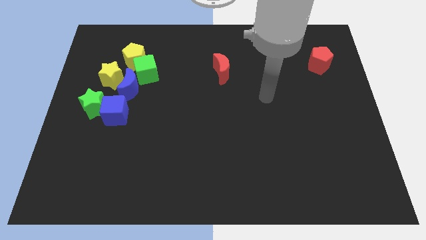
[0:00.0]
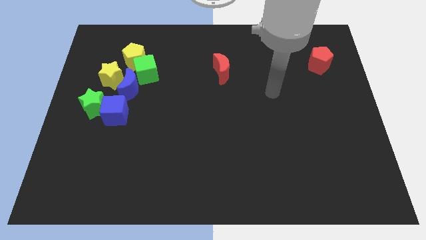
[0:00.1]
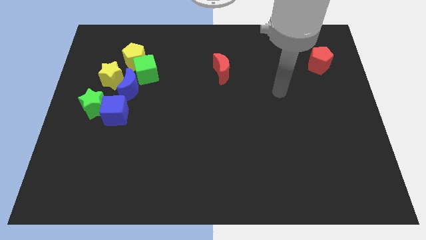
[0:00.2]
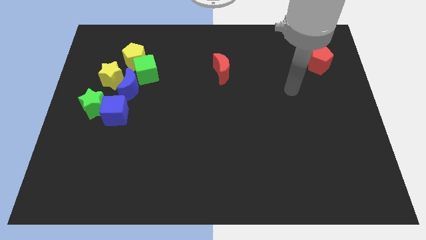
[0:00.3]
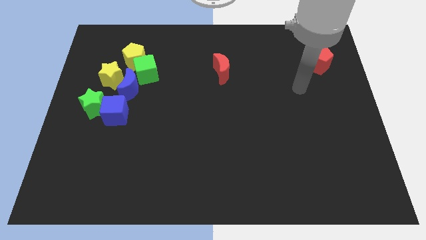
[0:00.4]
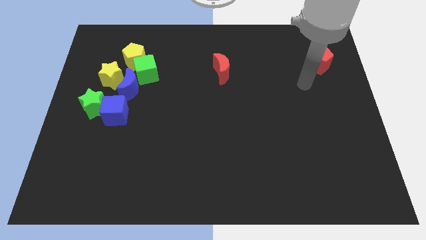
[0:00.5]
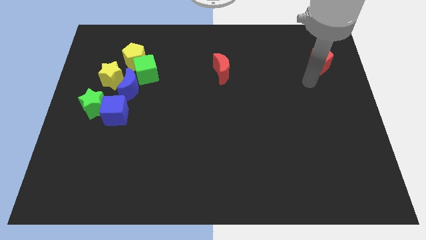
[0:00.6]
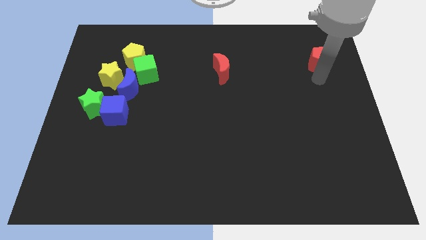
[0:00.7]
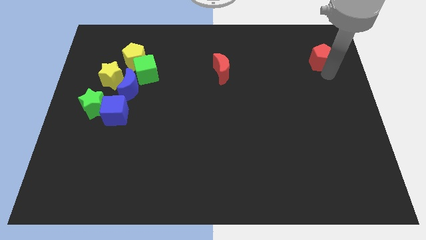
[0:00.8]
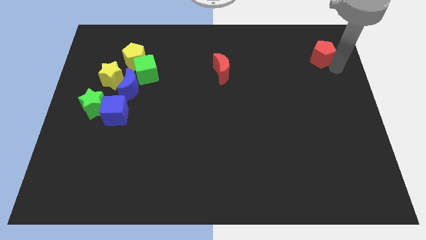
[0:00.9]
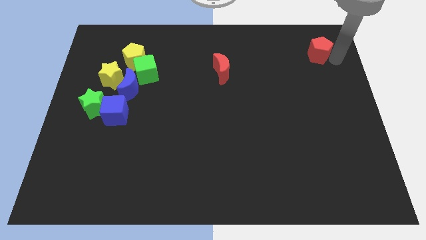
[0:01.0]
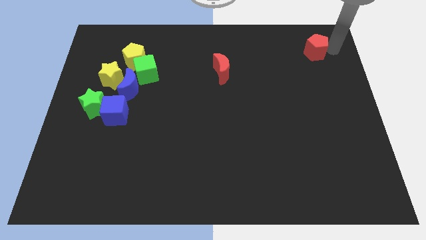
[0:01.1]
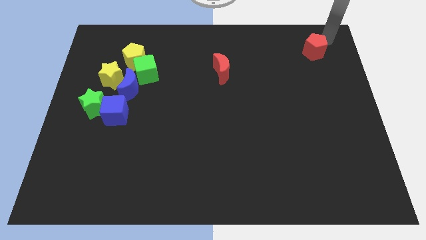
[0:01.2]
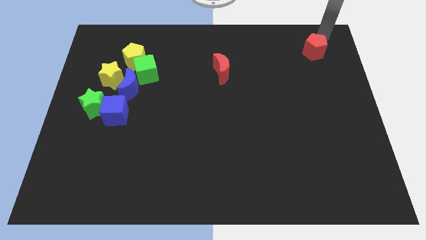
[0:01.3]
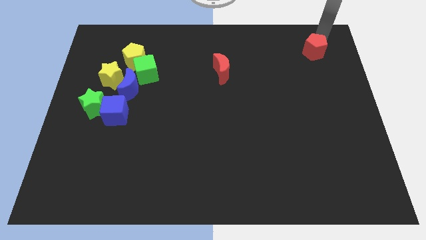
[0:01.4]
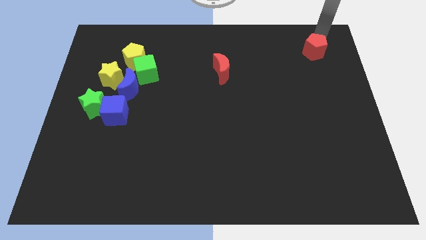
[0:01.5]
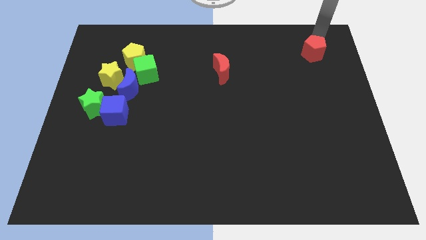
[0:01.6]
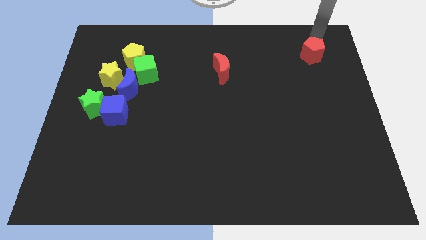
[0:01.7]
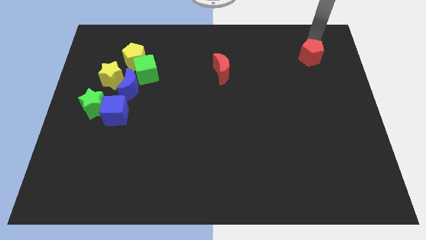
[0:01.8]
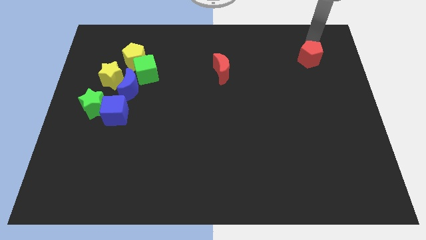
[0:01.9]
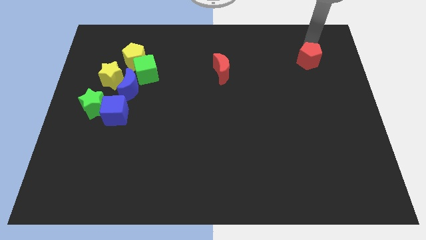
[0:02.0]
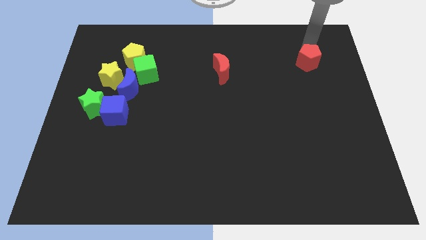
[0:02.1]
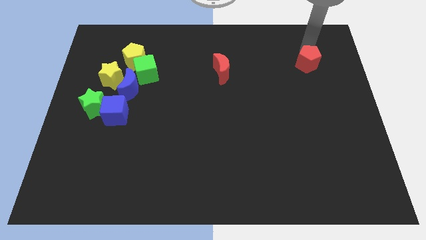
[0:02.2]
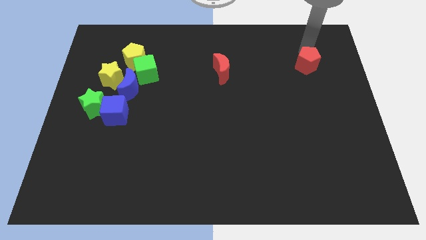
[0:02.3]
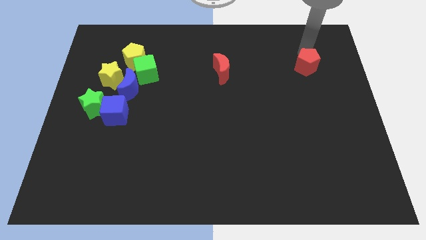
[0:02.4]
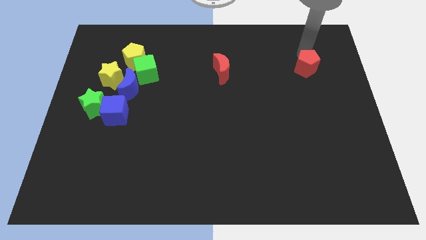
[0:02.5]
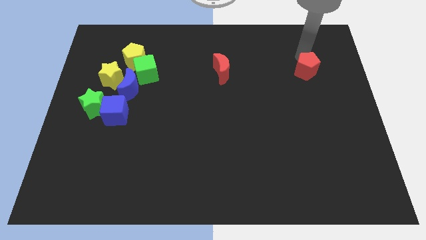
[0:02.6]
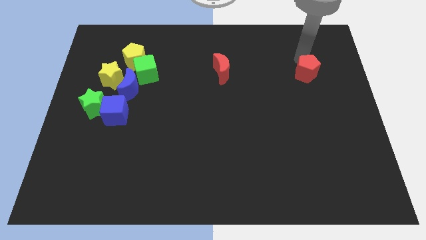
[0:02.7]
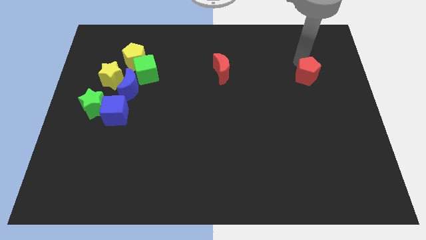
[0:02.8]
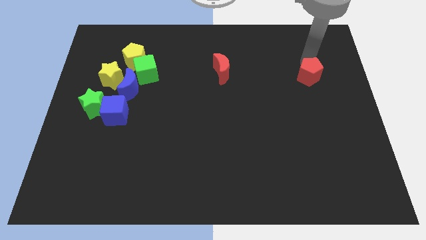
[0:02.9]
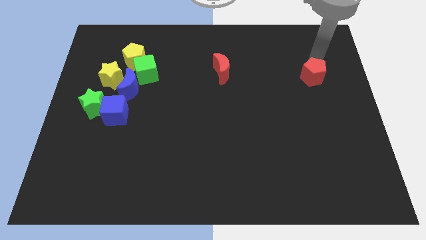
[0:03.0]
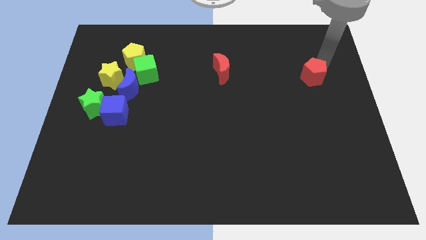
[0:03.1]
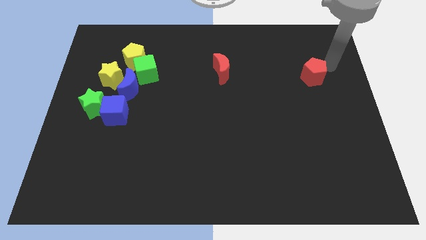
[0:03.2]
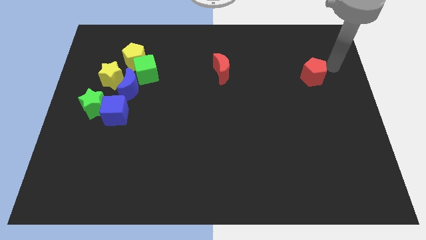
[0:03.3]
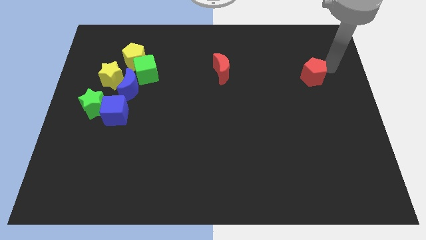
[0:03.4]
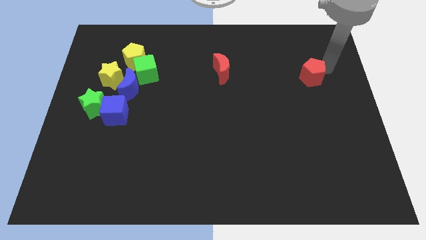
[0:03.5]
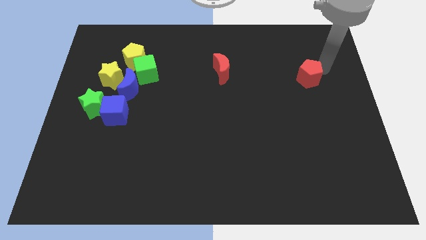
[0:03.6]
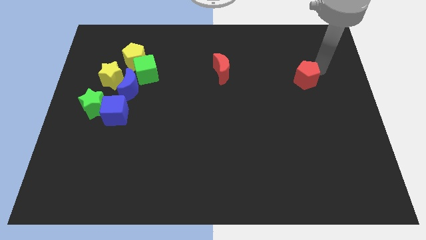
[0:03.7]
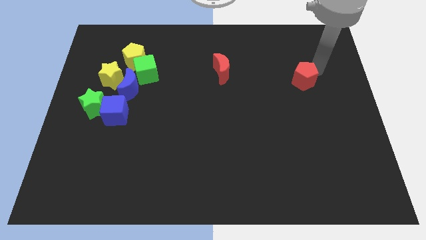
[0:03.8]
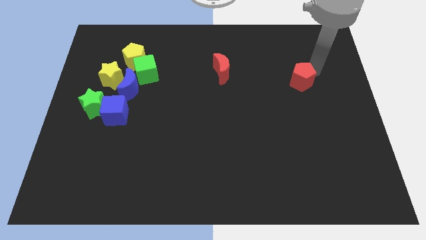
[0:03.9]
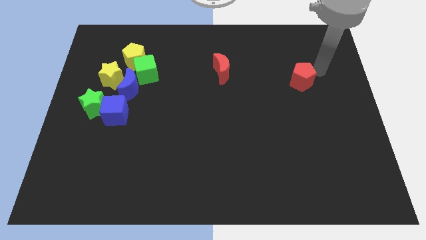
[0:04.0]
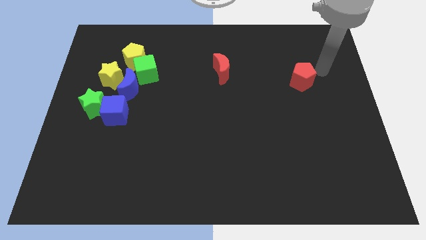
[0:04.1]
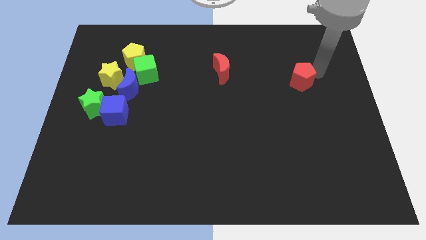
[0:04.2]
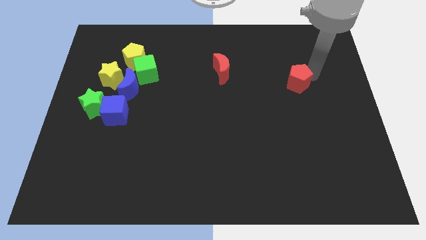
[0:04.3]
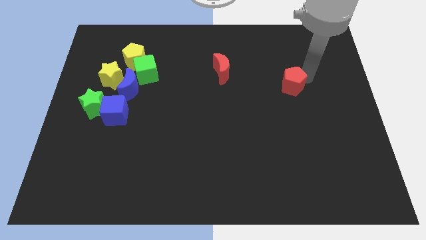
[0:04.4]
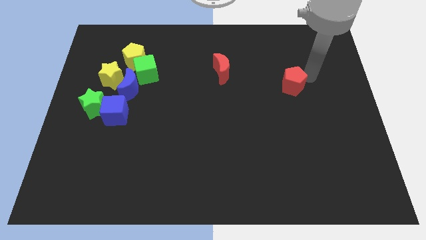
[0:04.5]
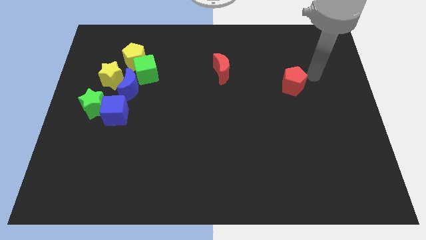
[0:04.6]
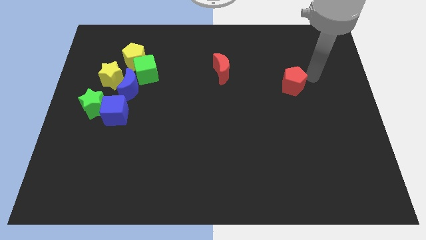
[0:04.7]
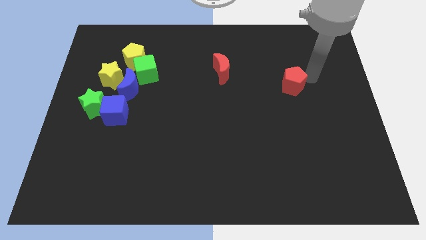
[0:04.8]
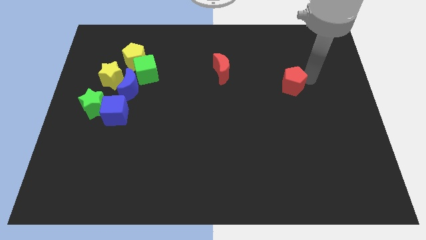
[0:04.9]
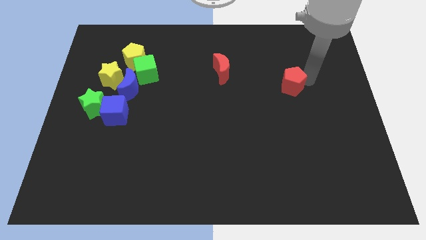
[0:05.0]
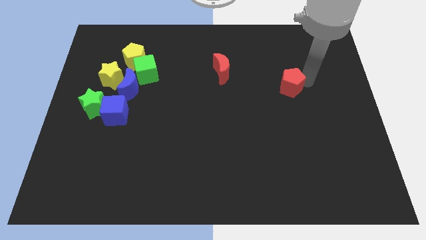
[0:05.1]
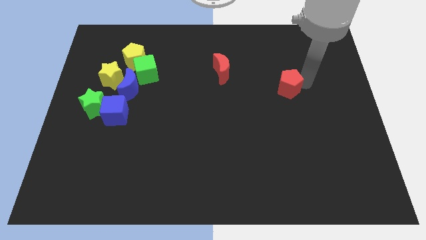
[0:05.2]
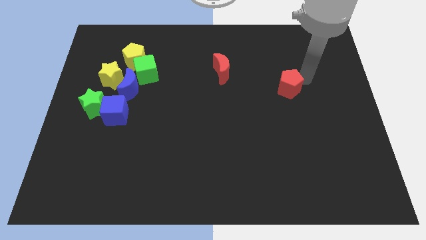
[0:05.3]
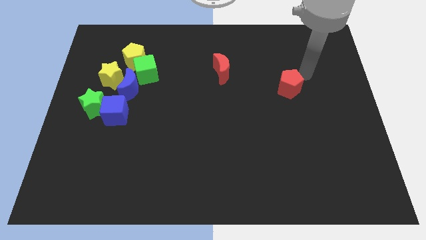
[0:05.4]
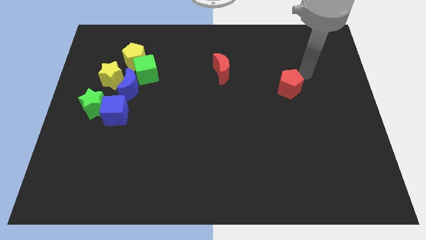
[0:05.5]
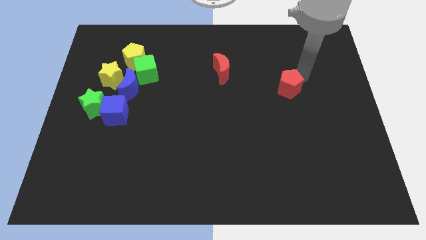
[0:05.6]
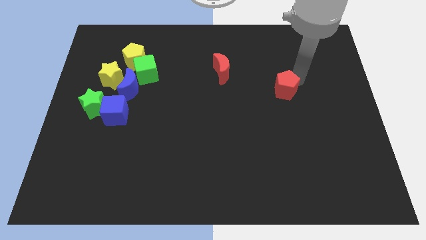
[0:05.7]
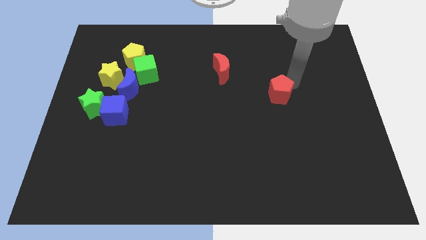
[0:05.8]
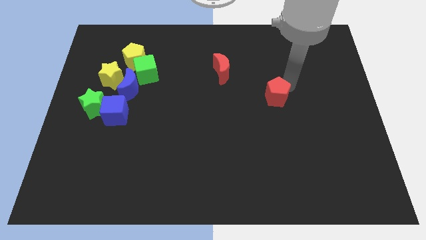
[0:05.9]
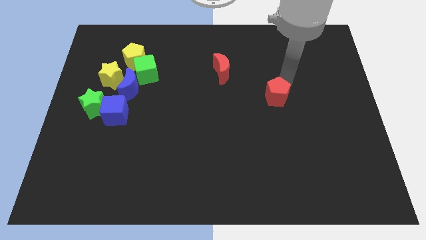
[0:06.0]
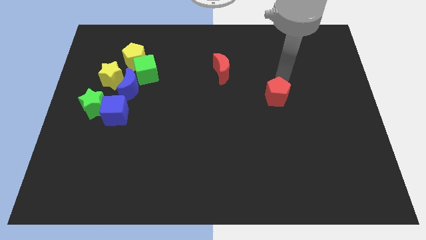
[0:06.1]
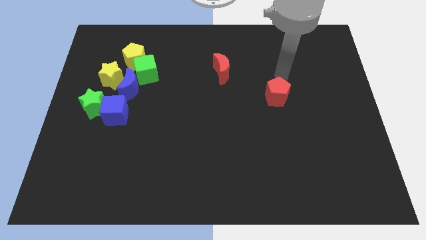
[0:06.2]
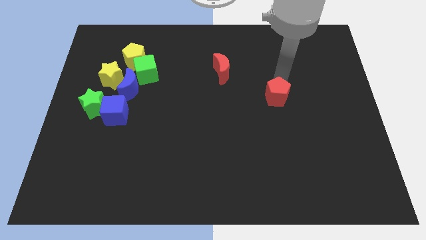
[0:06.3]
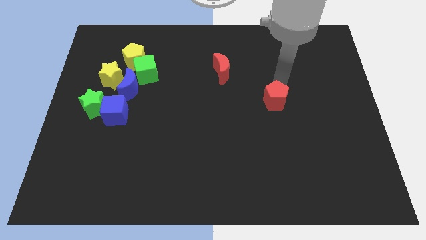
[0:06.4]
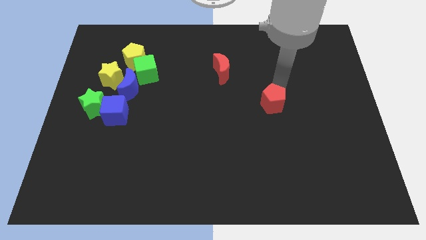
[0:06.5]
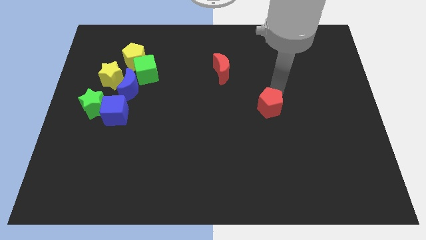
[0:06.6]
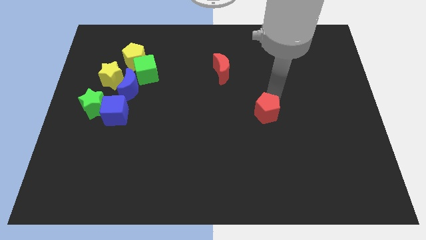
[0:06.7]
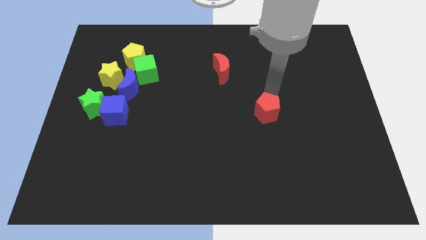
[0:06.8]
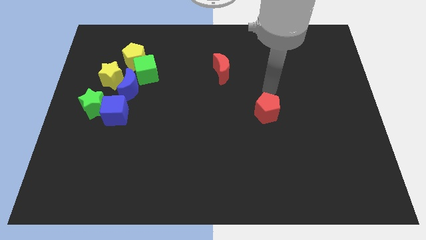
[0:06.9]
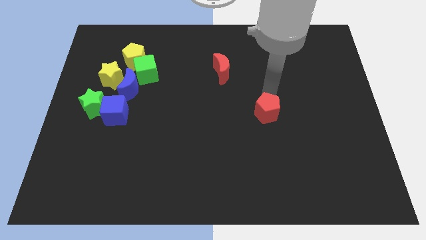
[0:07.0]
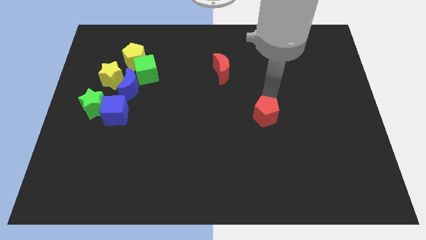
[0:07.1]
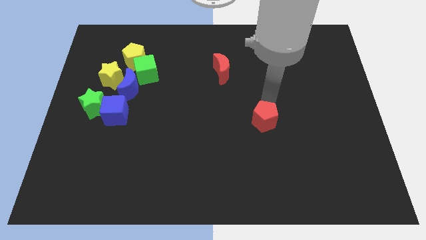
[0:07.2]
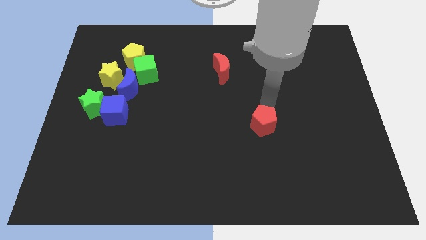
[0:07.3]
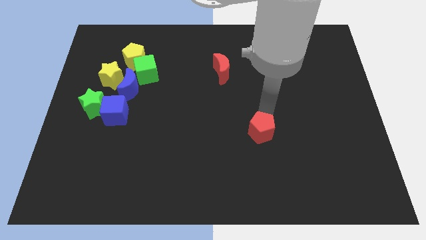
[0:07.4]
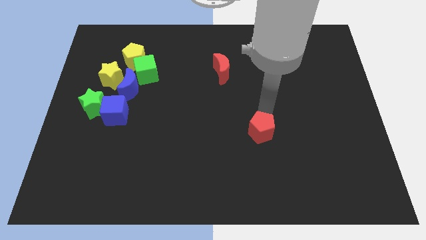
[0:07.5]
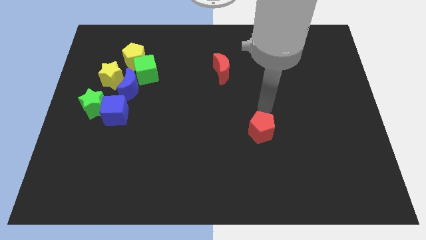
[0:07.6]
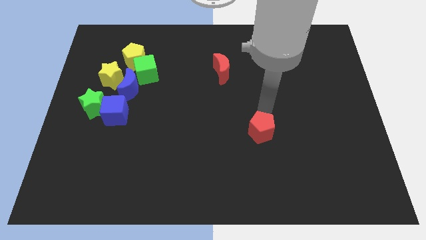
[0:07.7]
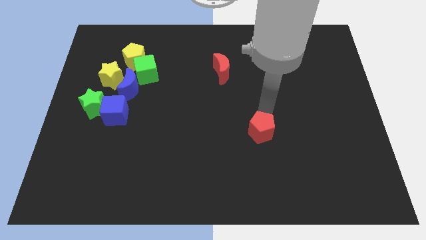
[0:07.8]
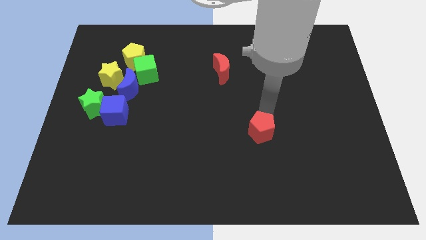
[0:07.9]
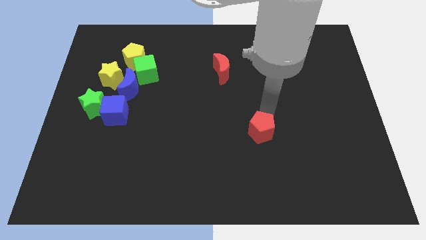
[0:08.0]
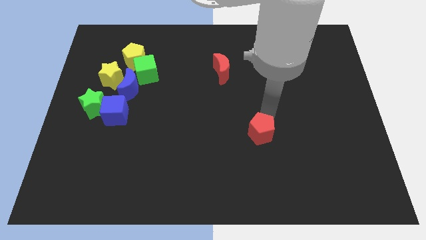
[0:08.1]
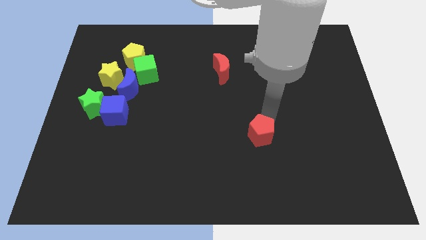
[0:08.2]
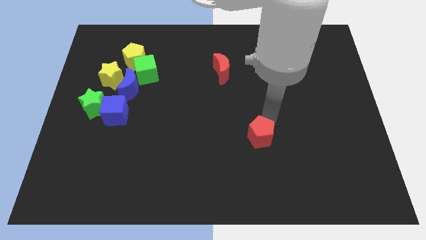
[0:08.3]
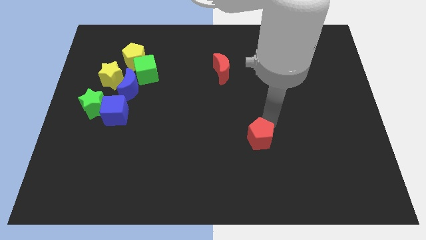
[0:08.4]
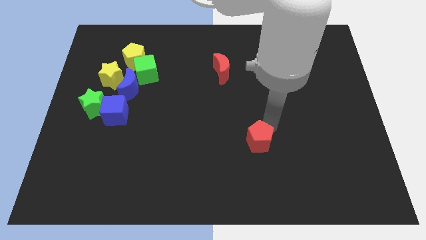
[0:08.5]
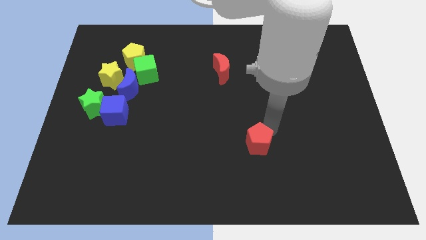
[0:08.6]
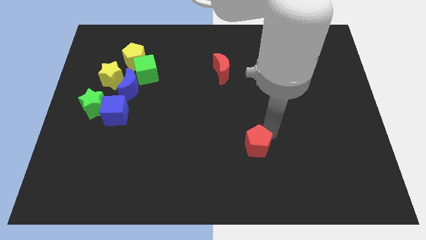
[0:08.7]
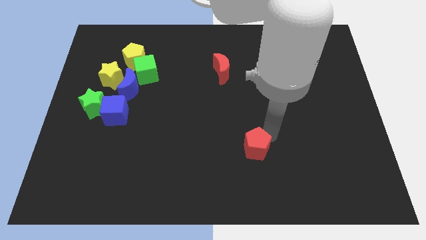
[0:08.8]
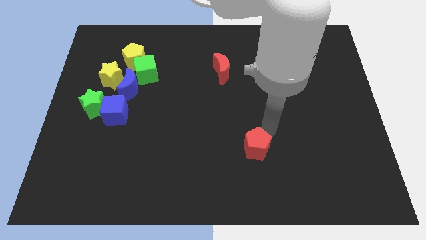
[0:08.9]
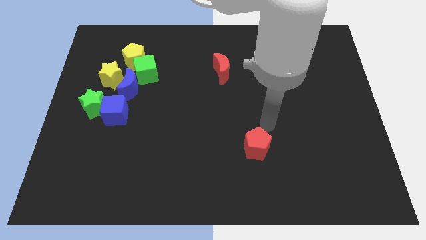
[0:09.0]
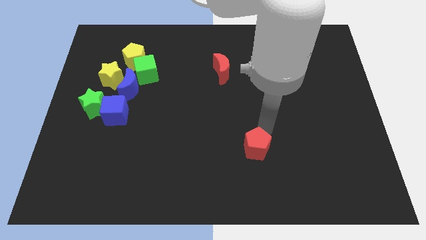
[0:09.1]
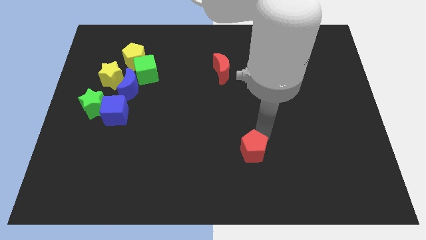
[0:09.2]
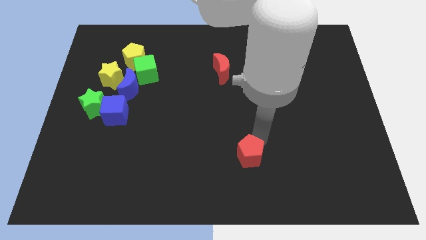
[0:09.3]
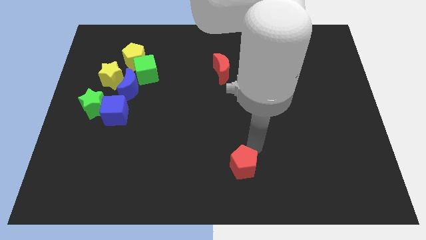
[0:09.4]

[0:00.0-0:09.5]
push the red pentagon to the bottom
